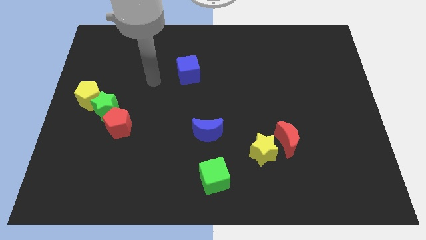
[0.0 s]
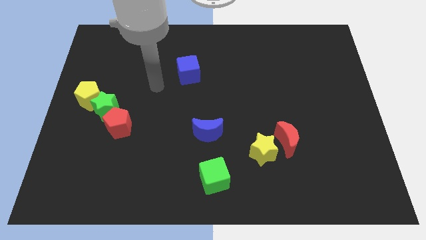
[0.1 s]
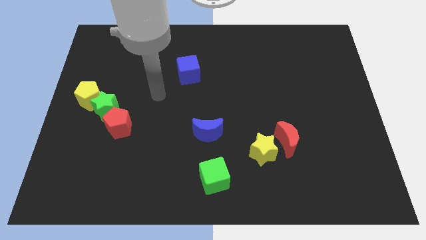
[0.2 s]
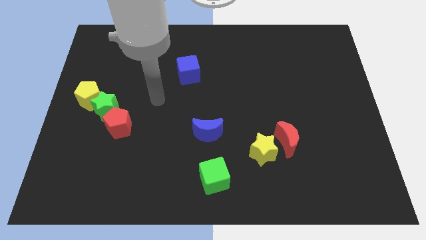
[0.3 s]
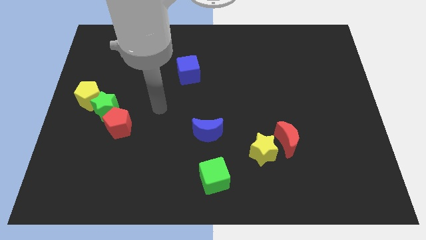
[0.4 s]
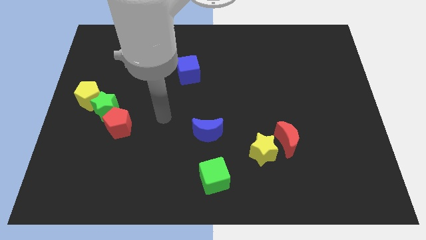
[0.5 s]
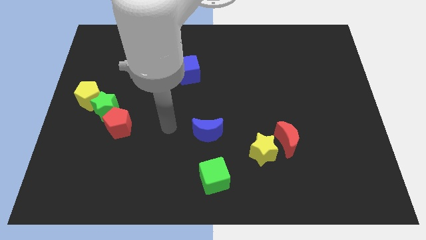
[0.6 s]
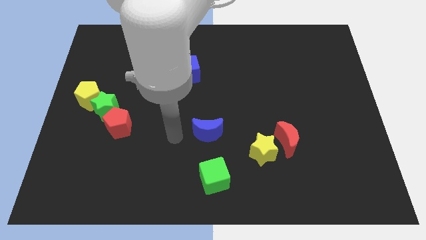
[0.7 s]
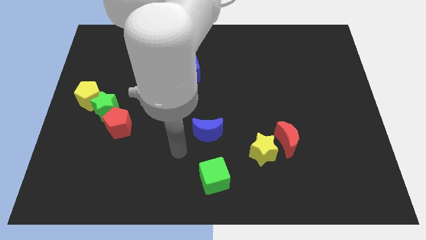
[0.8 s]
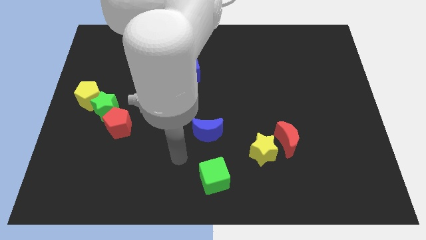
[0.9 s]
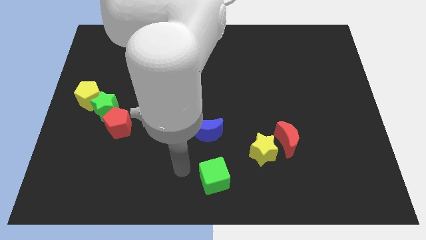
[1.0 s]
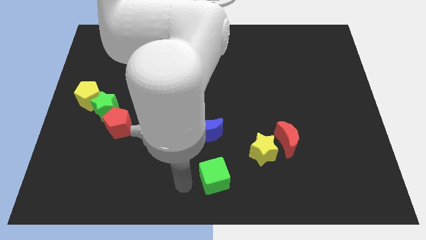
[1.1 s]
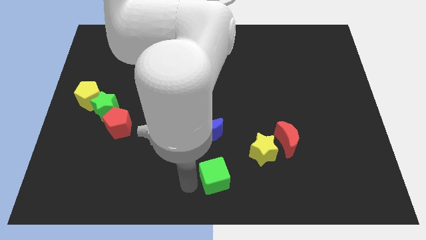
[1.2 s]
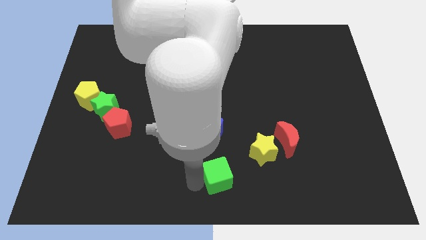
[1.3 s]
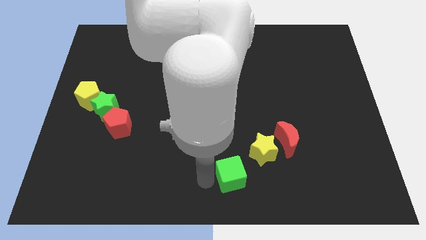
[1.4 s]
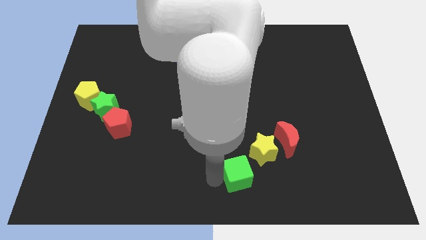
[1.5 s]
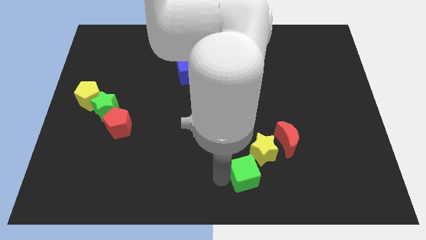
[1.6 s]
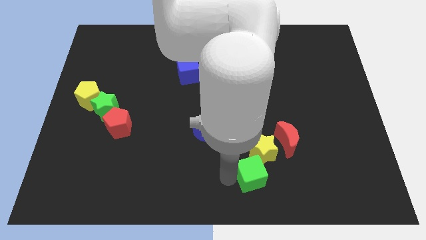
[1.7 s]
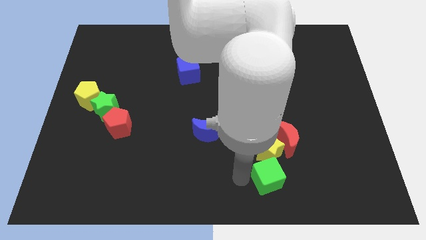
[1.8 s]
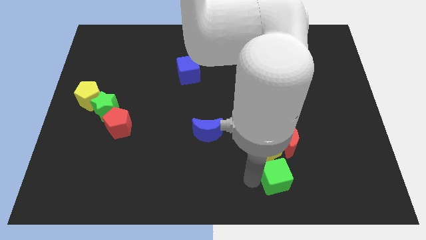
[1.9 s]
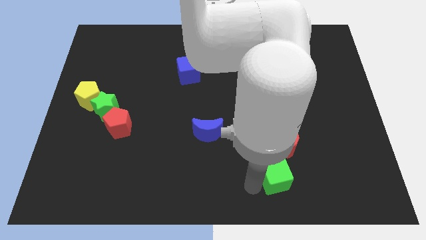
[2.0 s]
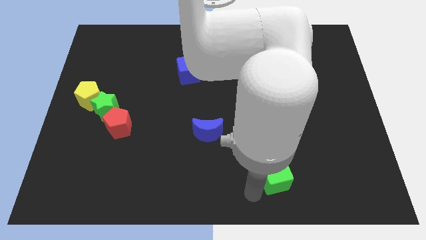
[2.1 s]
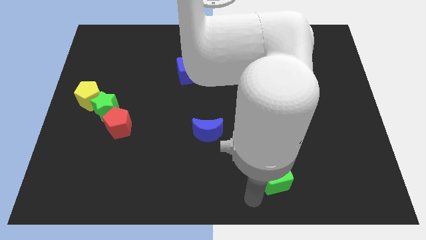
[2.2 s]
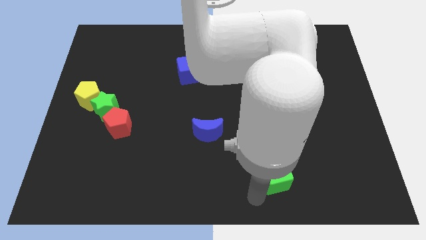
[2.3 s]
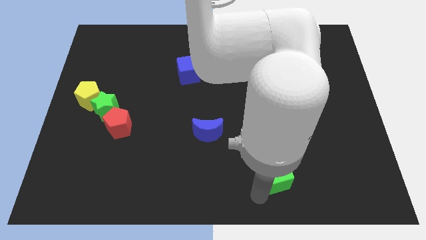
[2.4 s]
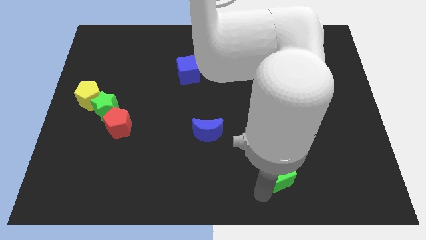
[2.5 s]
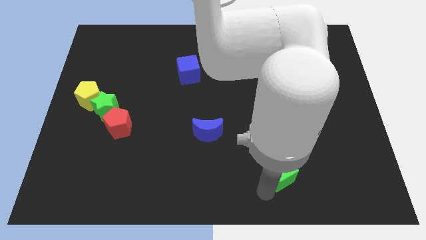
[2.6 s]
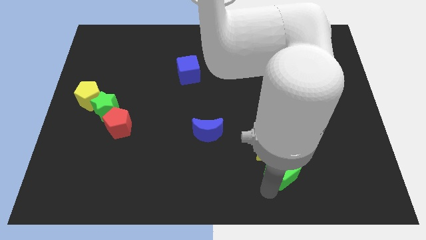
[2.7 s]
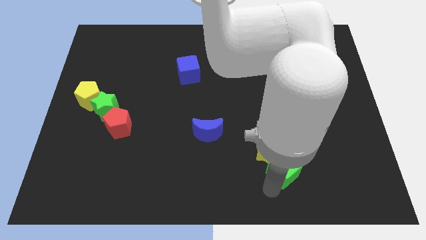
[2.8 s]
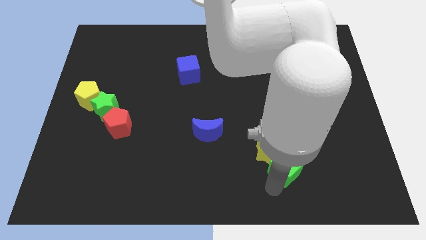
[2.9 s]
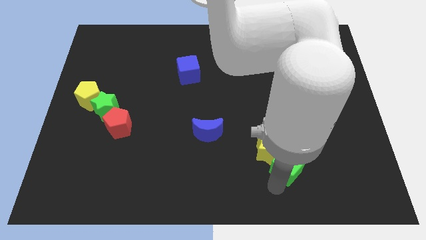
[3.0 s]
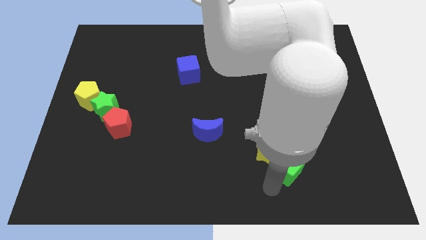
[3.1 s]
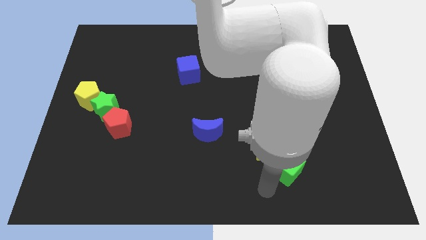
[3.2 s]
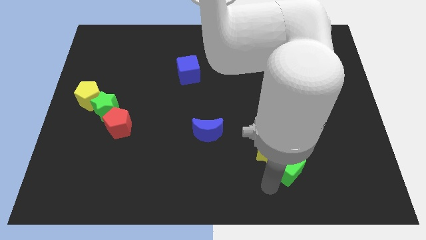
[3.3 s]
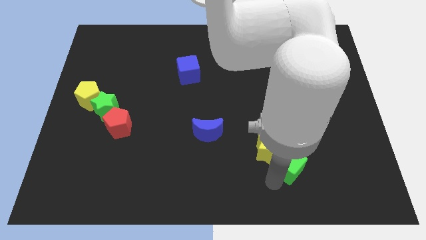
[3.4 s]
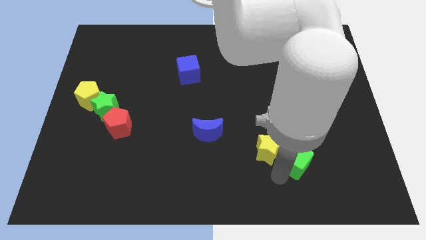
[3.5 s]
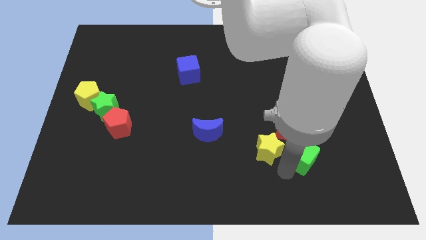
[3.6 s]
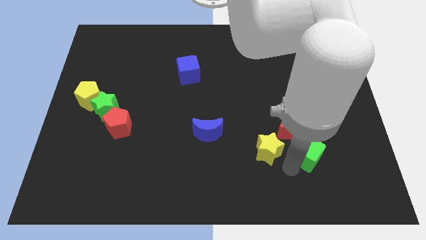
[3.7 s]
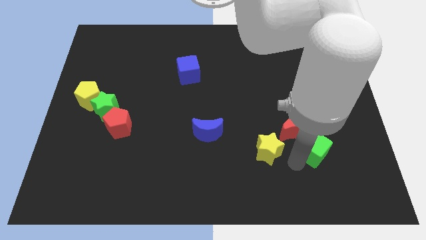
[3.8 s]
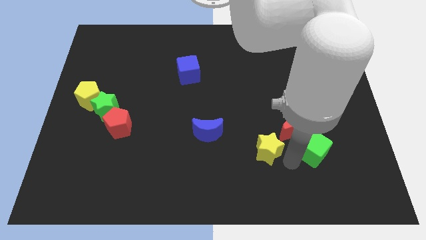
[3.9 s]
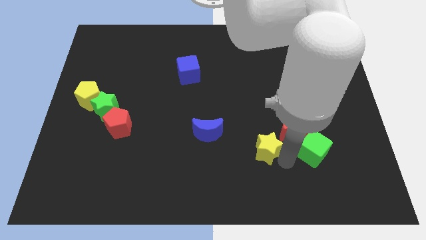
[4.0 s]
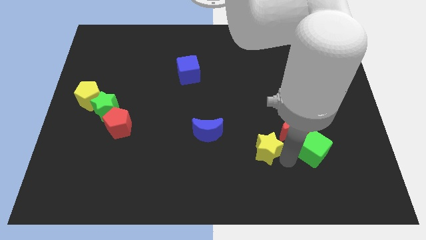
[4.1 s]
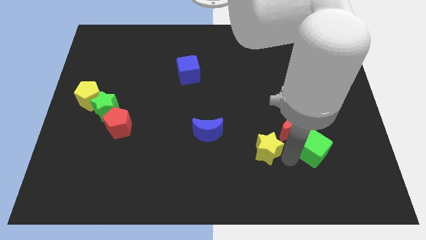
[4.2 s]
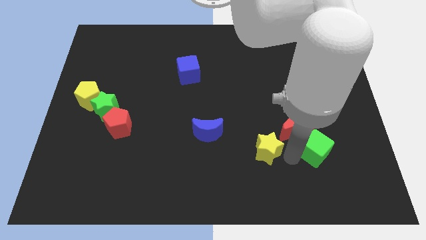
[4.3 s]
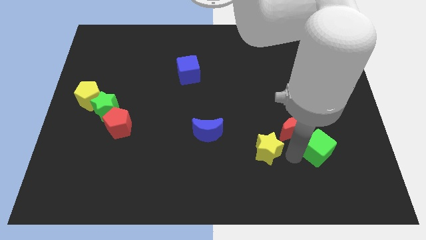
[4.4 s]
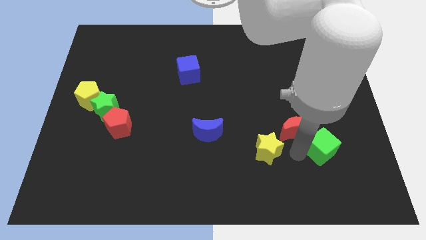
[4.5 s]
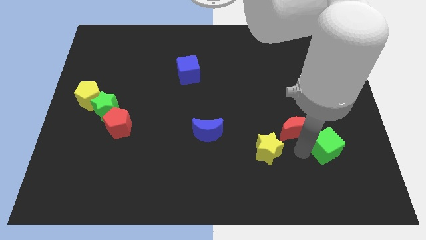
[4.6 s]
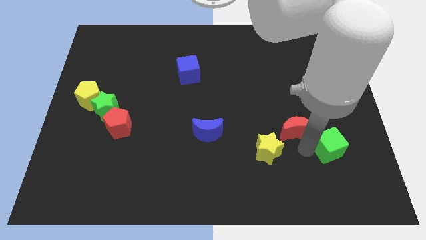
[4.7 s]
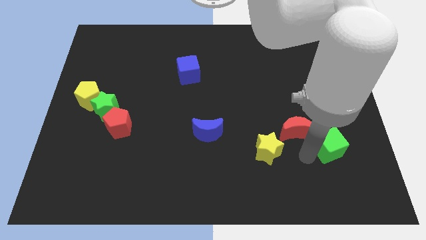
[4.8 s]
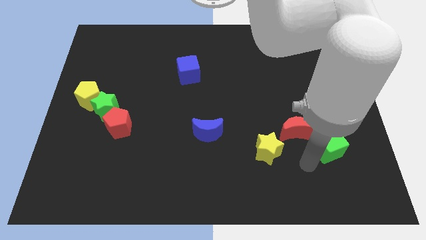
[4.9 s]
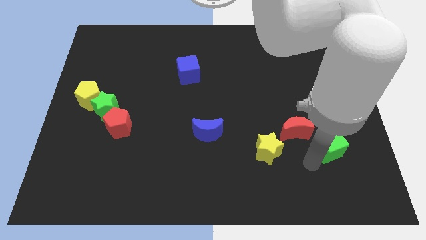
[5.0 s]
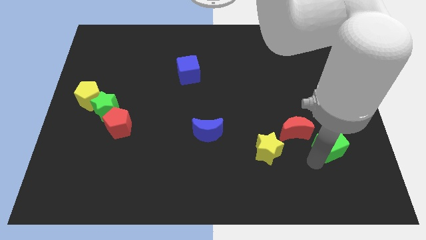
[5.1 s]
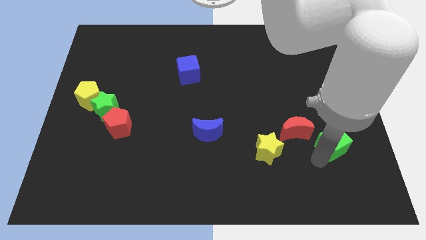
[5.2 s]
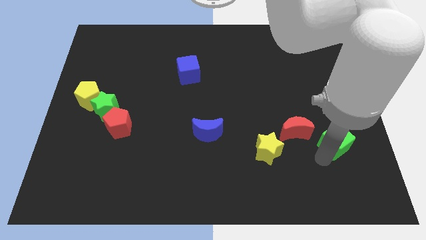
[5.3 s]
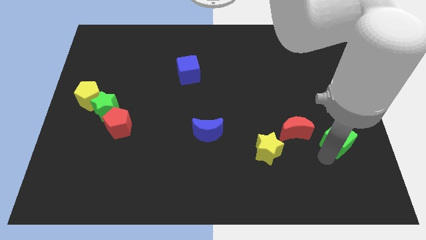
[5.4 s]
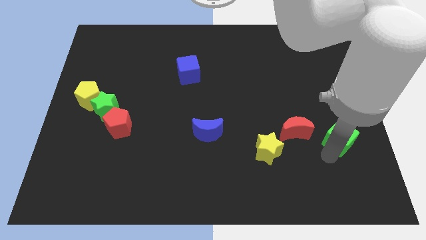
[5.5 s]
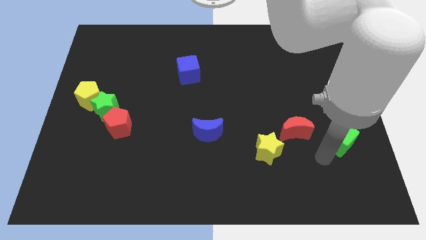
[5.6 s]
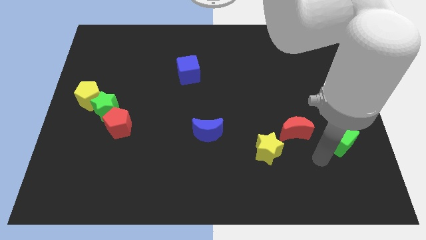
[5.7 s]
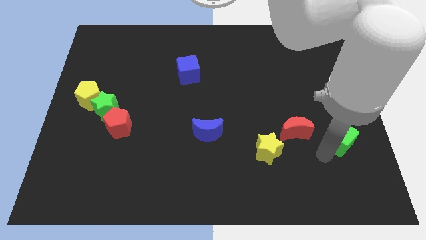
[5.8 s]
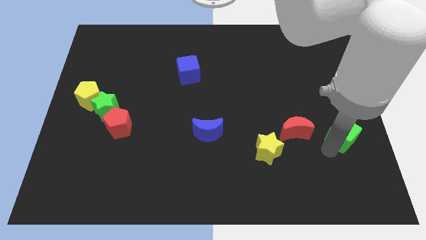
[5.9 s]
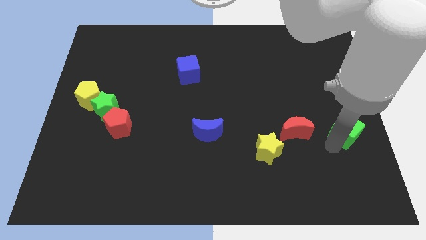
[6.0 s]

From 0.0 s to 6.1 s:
put the green cube to the right side

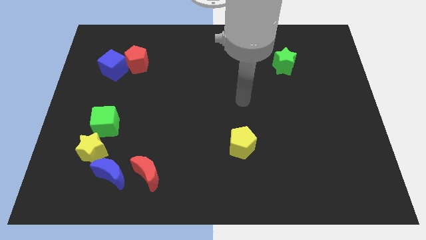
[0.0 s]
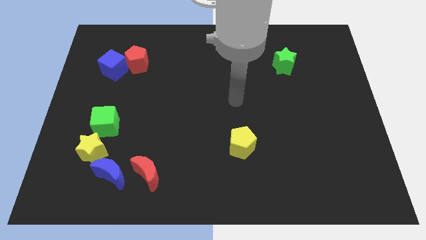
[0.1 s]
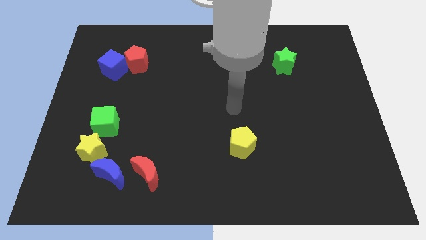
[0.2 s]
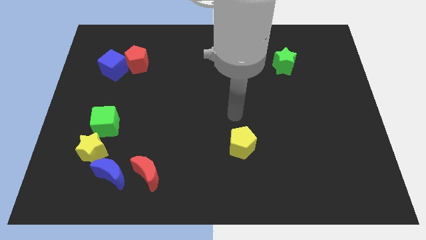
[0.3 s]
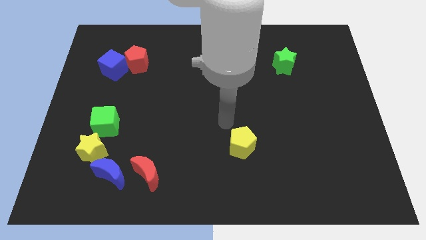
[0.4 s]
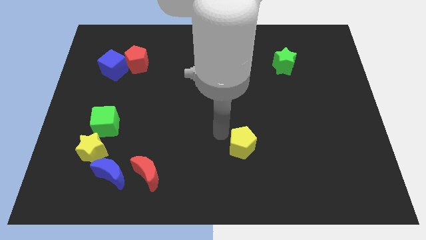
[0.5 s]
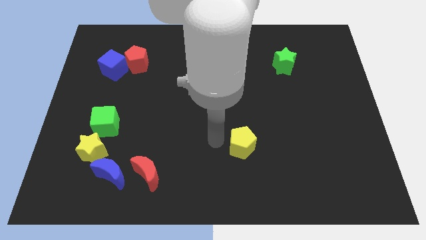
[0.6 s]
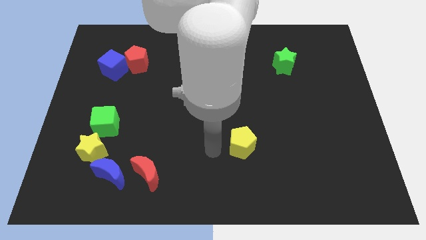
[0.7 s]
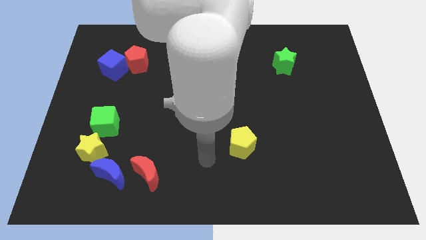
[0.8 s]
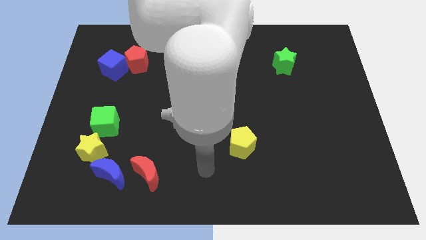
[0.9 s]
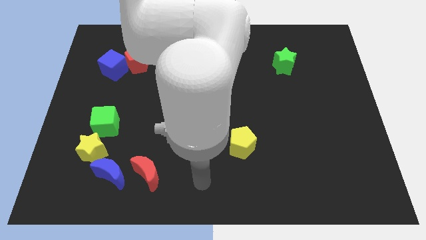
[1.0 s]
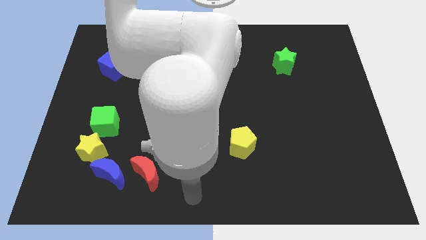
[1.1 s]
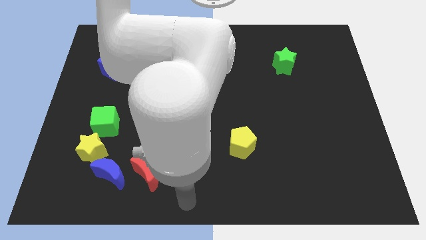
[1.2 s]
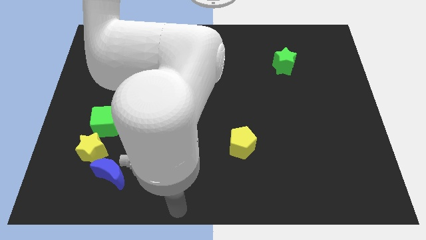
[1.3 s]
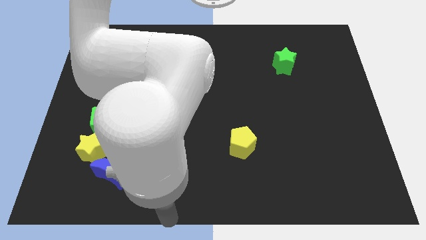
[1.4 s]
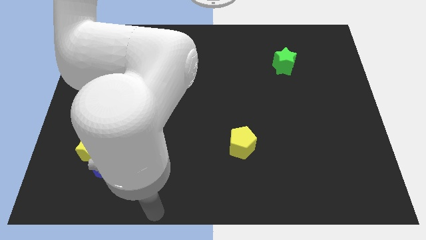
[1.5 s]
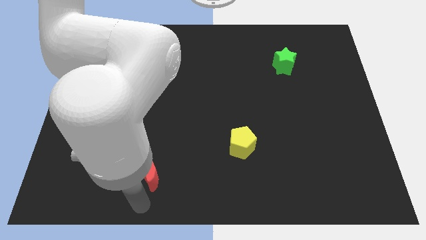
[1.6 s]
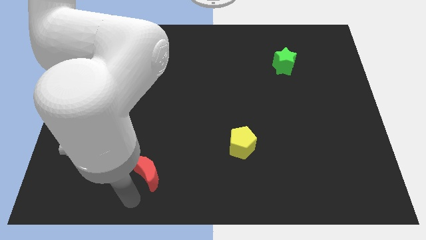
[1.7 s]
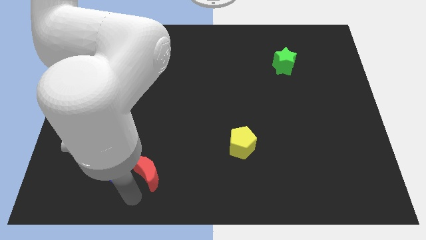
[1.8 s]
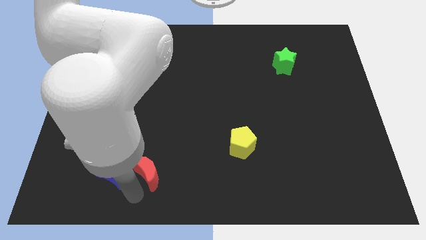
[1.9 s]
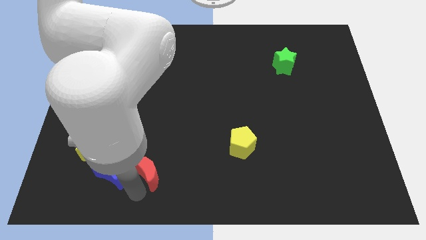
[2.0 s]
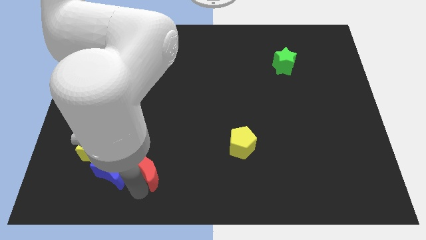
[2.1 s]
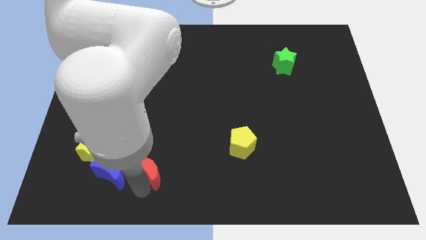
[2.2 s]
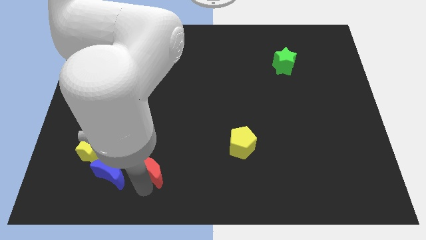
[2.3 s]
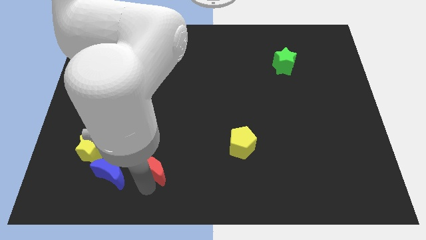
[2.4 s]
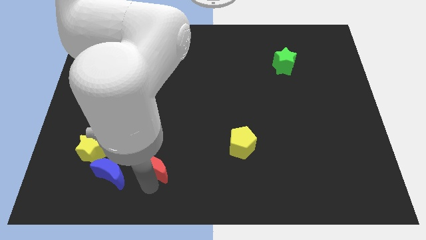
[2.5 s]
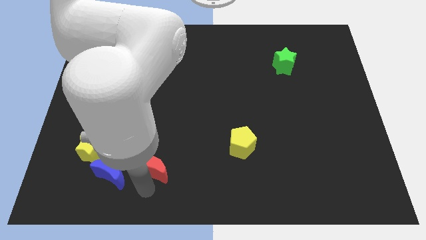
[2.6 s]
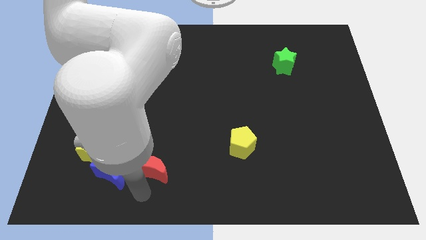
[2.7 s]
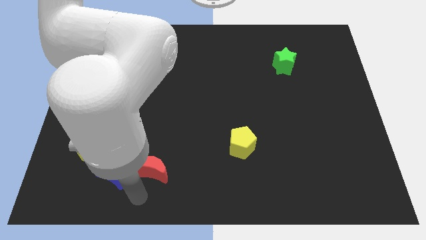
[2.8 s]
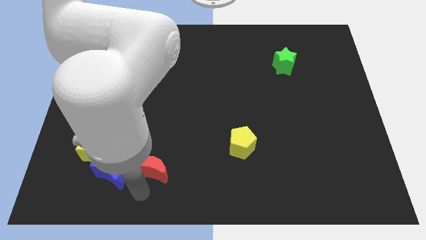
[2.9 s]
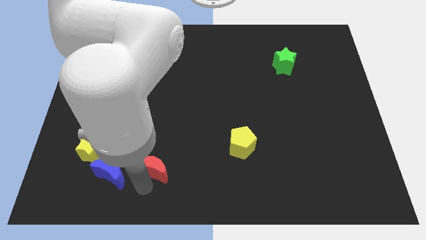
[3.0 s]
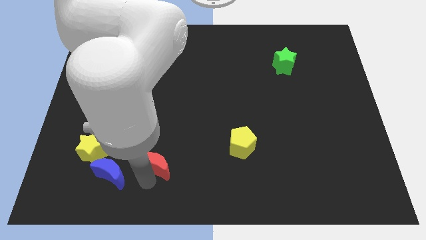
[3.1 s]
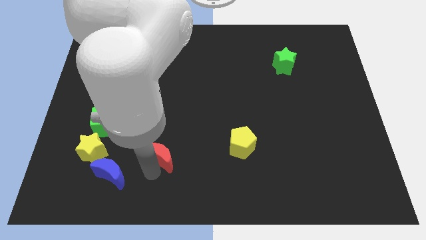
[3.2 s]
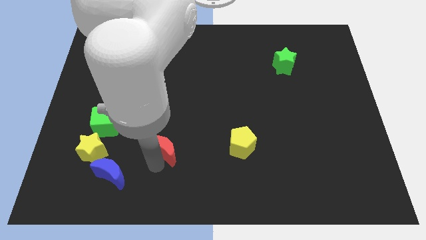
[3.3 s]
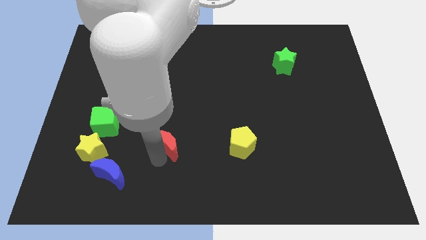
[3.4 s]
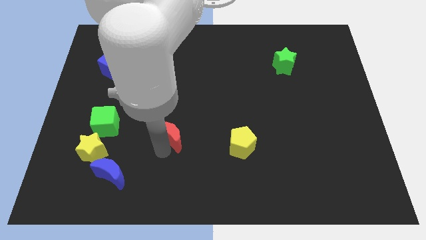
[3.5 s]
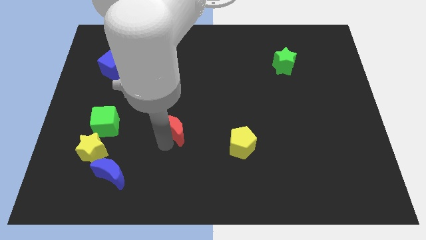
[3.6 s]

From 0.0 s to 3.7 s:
move the red moon to the middle of the board
